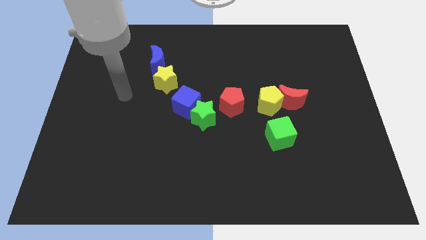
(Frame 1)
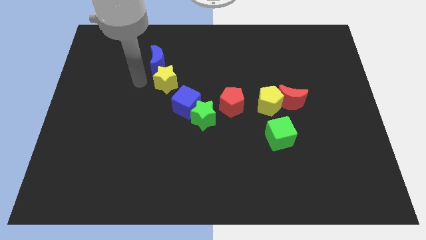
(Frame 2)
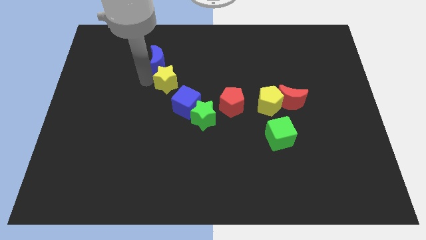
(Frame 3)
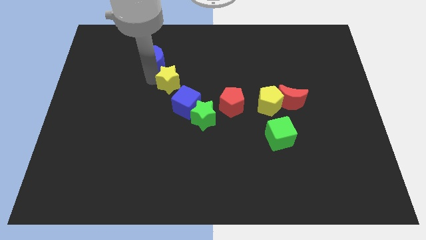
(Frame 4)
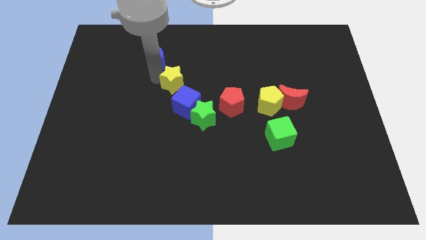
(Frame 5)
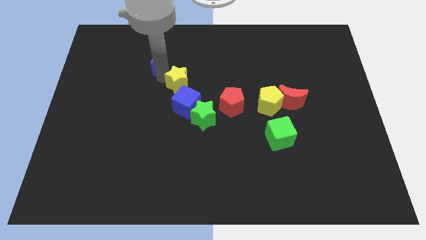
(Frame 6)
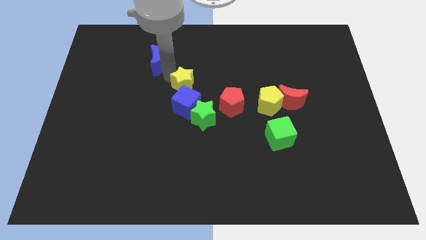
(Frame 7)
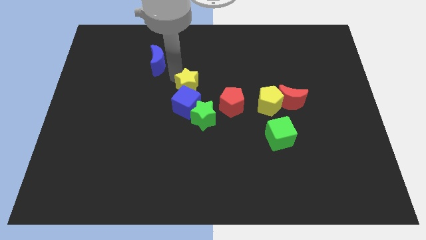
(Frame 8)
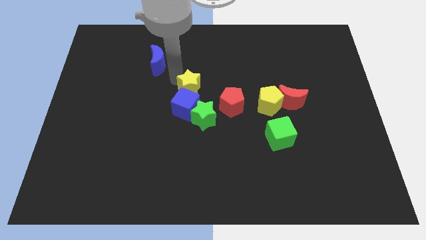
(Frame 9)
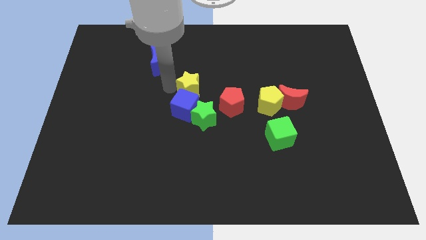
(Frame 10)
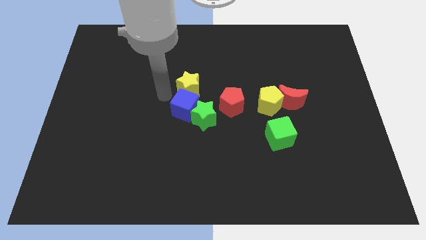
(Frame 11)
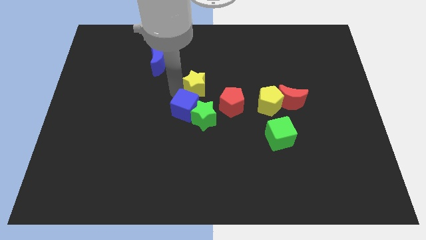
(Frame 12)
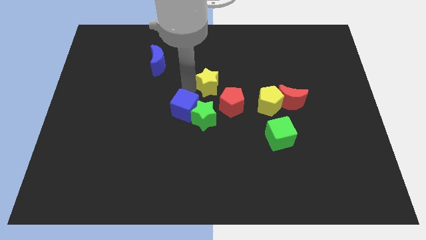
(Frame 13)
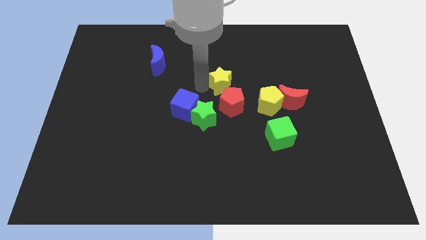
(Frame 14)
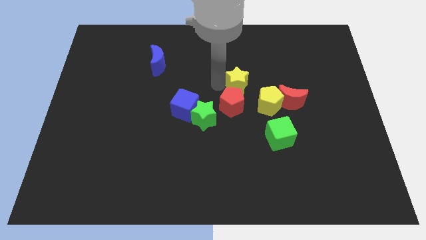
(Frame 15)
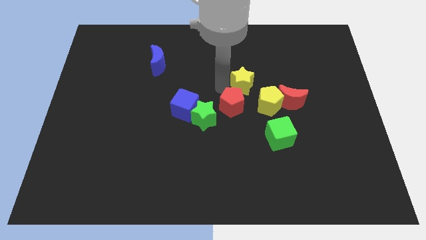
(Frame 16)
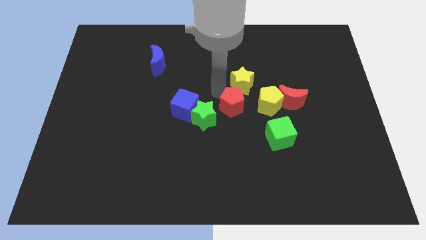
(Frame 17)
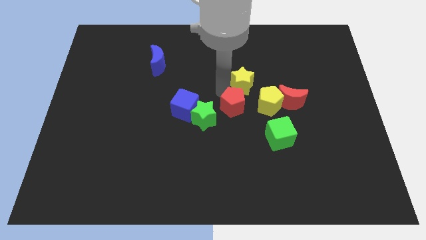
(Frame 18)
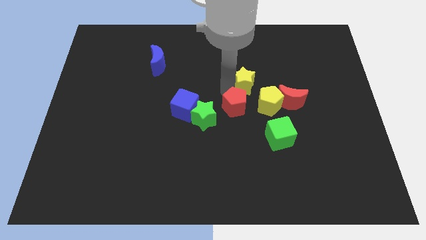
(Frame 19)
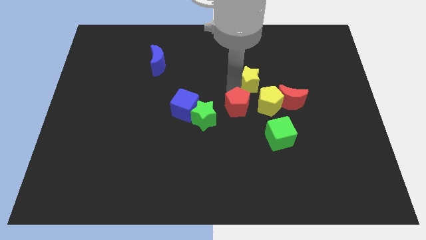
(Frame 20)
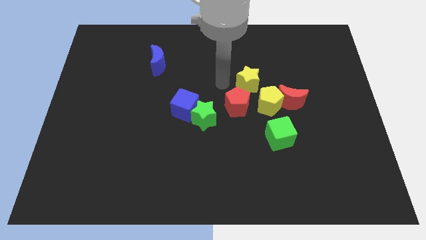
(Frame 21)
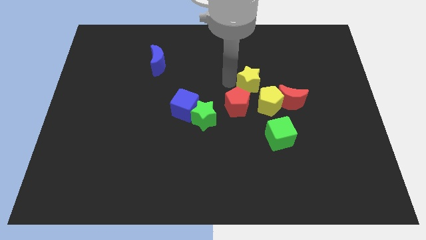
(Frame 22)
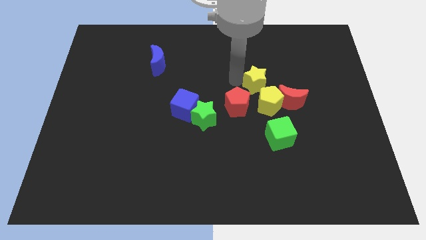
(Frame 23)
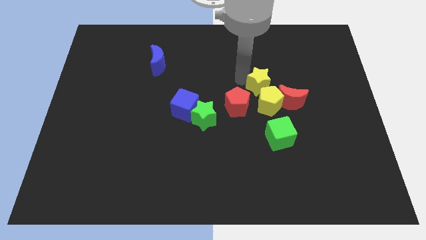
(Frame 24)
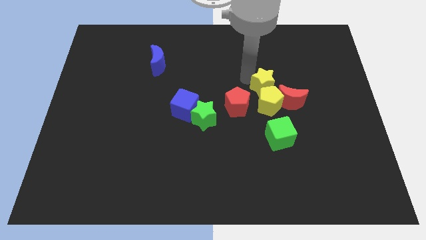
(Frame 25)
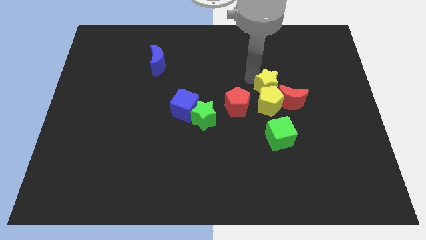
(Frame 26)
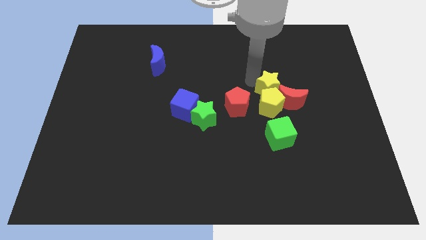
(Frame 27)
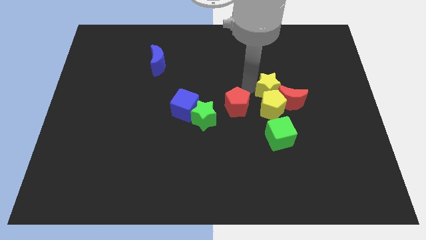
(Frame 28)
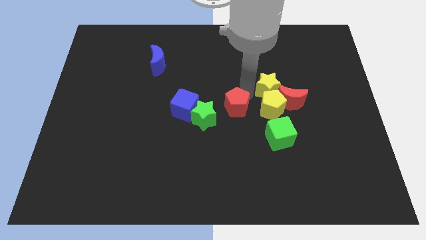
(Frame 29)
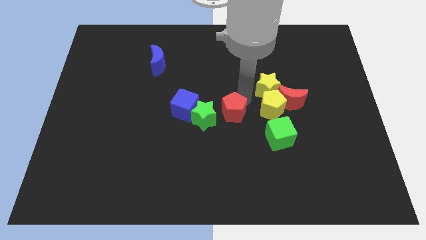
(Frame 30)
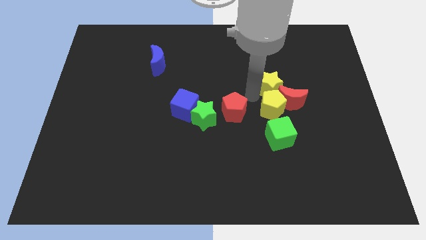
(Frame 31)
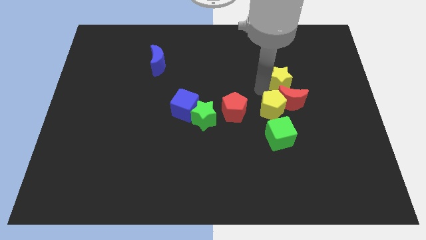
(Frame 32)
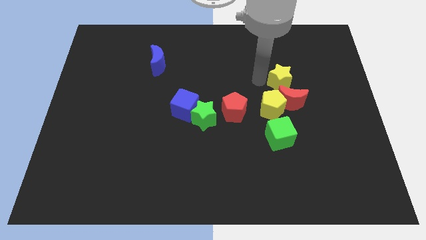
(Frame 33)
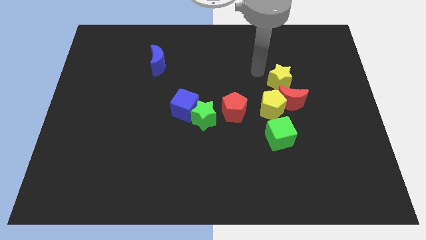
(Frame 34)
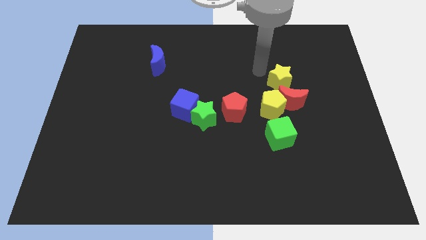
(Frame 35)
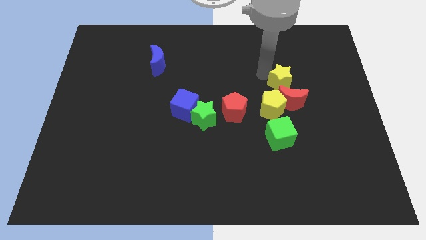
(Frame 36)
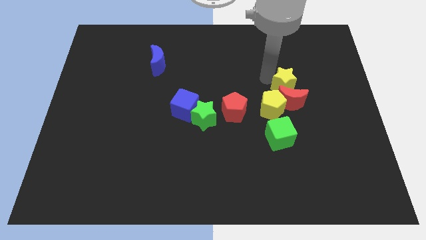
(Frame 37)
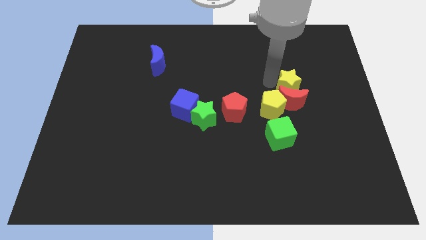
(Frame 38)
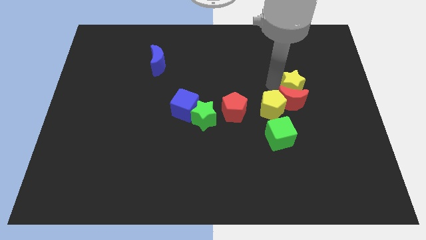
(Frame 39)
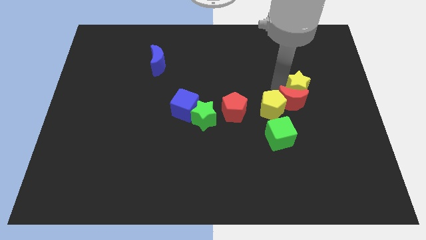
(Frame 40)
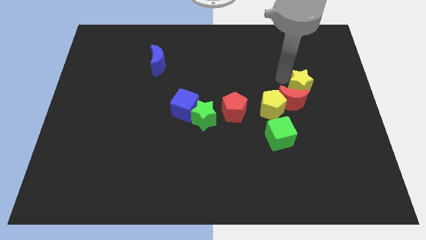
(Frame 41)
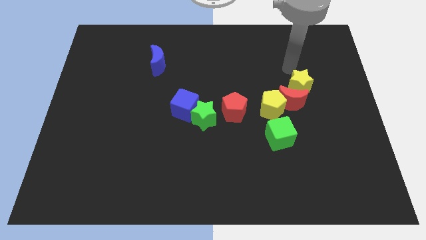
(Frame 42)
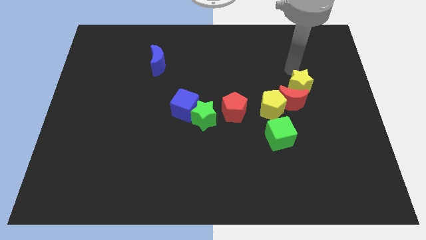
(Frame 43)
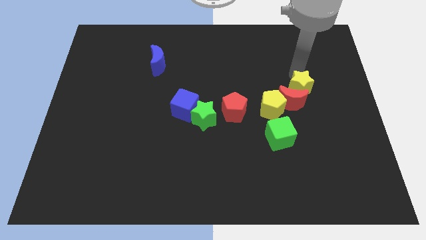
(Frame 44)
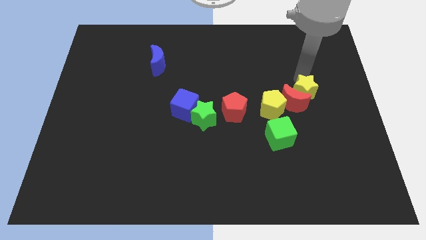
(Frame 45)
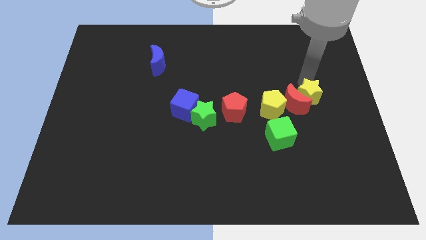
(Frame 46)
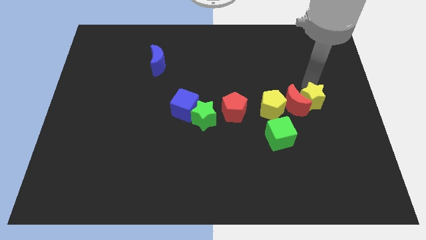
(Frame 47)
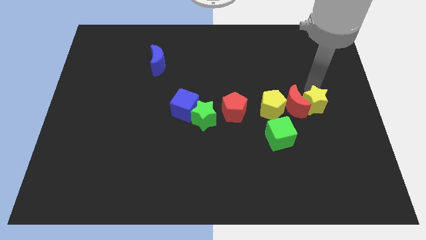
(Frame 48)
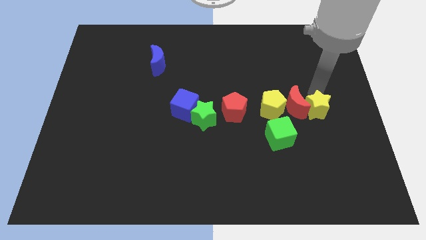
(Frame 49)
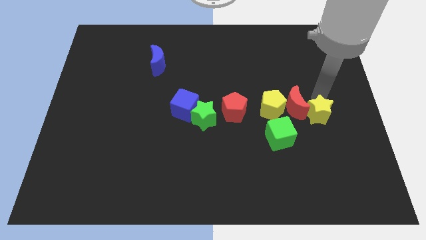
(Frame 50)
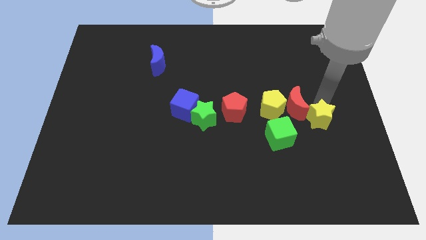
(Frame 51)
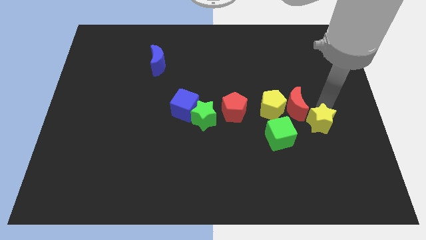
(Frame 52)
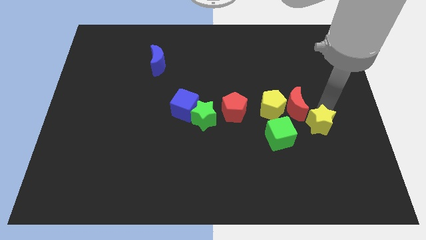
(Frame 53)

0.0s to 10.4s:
move the yellow star to the bottom of the red moon
